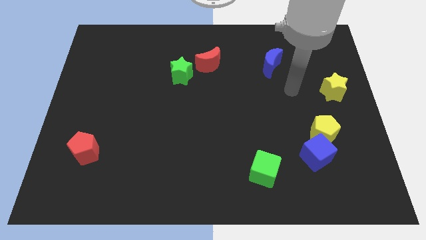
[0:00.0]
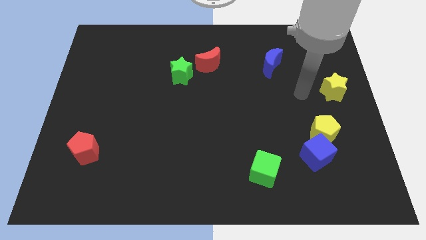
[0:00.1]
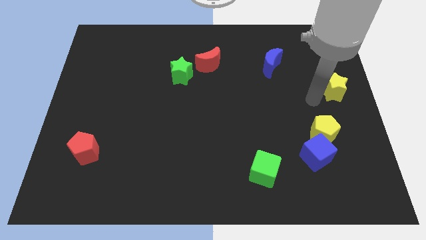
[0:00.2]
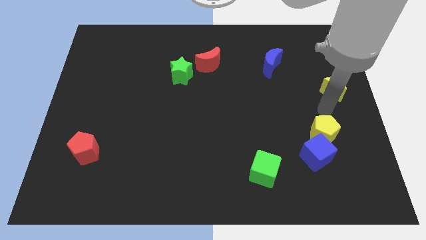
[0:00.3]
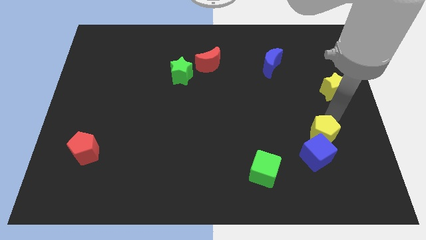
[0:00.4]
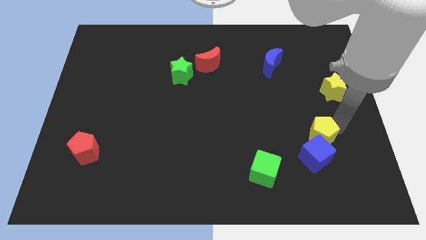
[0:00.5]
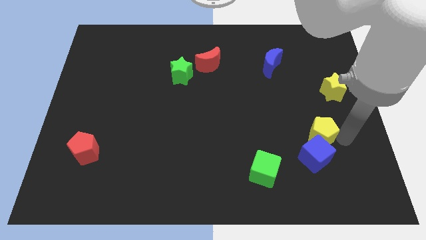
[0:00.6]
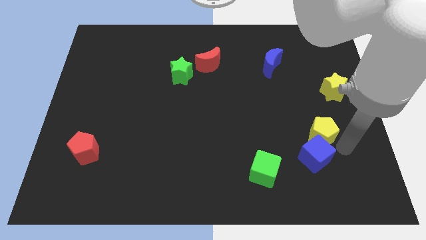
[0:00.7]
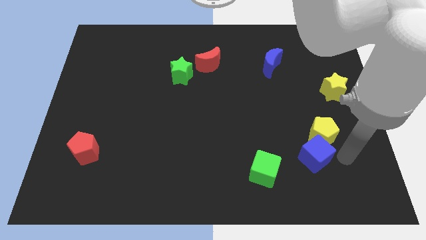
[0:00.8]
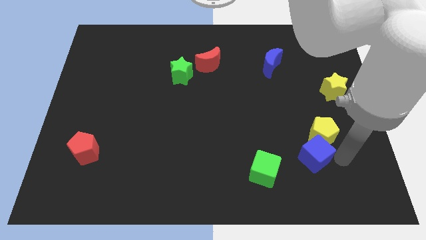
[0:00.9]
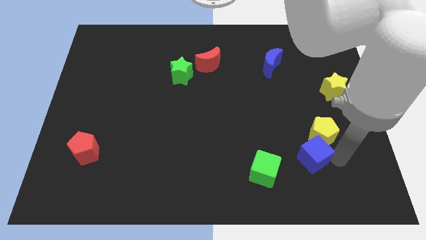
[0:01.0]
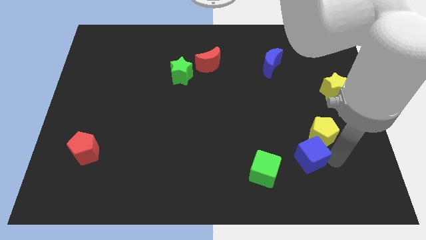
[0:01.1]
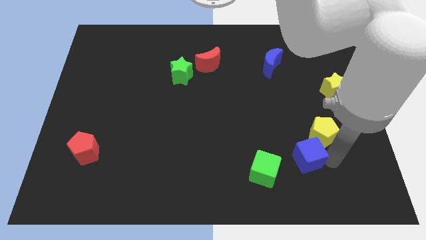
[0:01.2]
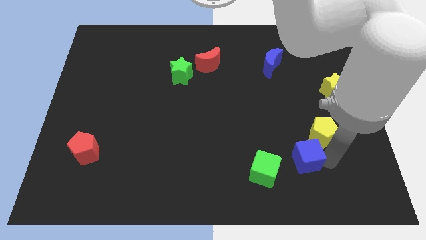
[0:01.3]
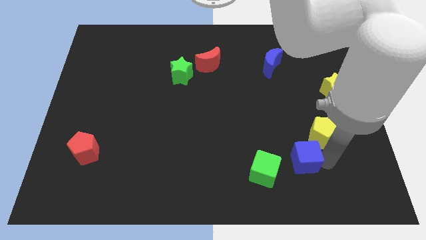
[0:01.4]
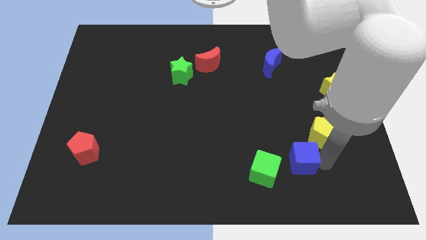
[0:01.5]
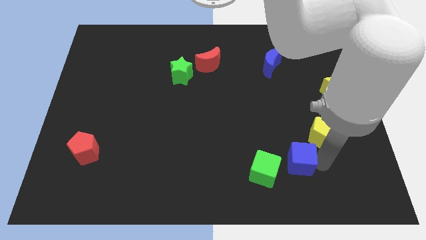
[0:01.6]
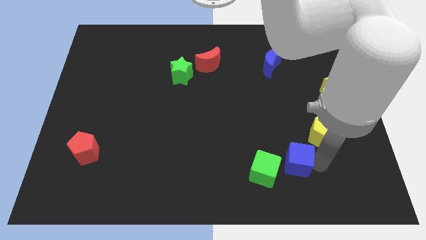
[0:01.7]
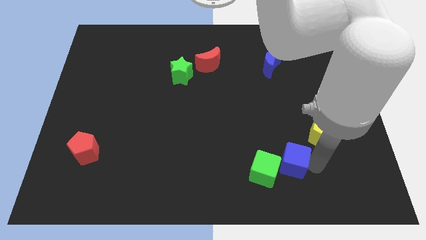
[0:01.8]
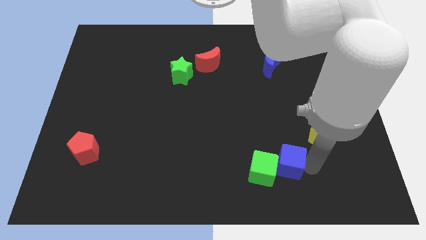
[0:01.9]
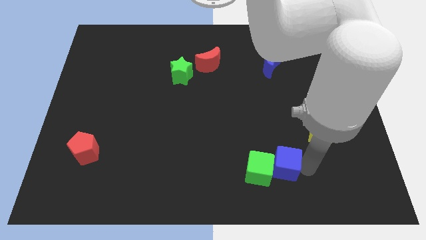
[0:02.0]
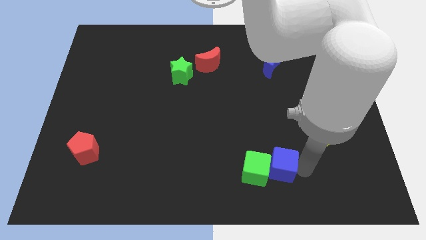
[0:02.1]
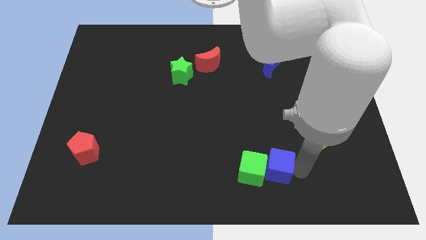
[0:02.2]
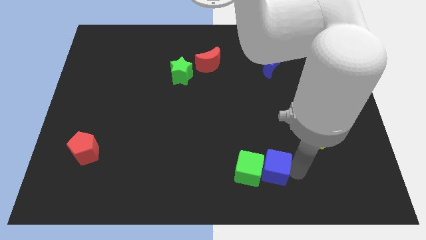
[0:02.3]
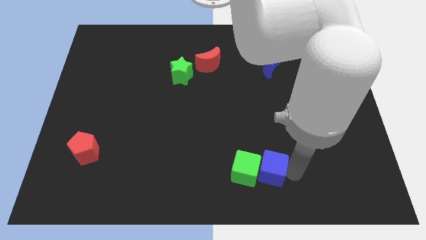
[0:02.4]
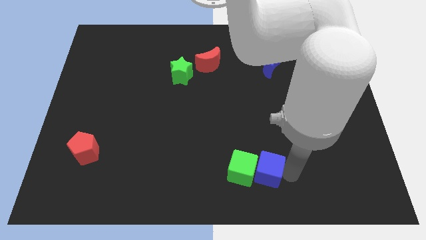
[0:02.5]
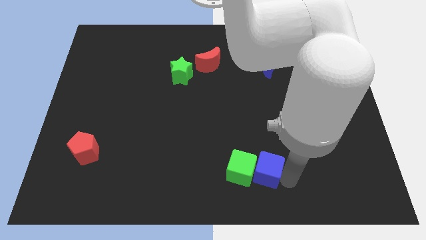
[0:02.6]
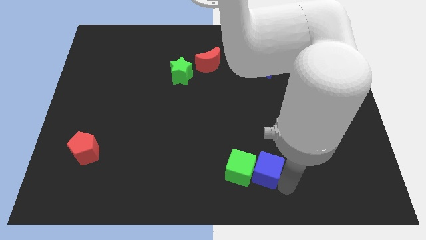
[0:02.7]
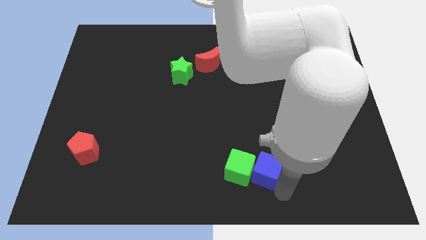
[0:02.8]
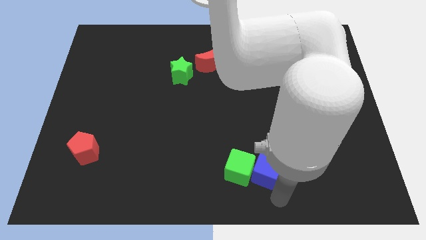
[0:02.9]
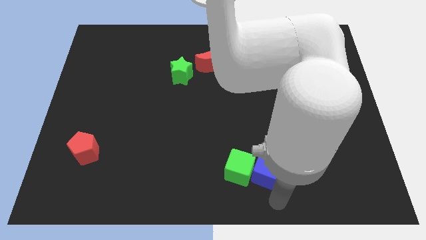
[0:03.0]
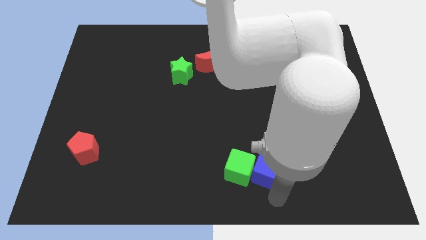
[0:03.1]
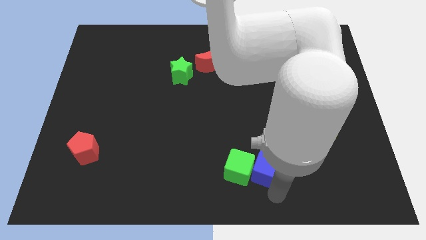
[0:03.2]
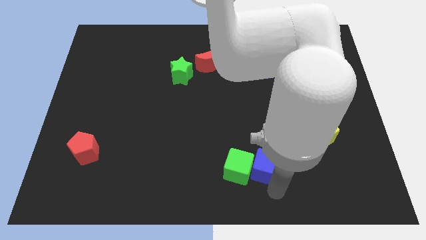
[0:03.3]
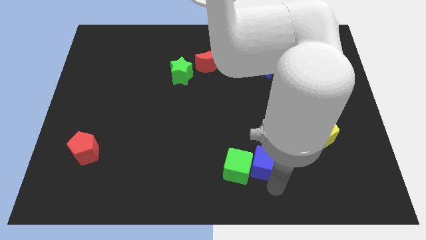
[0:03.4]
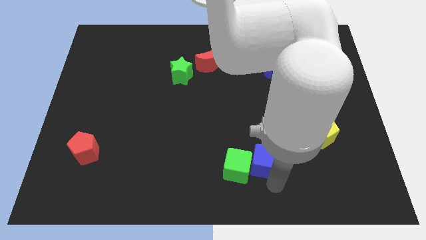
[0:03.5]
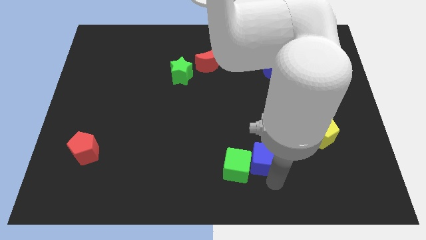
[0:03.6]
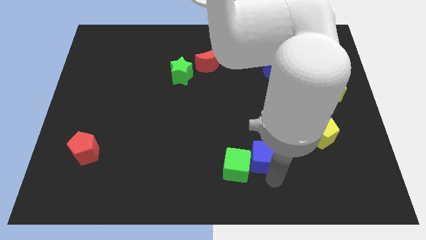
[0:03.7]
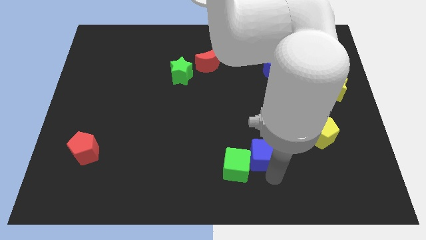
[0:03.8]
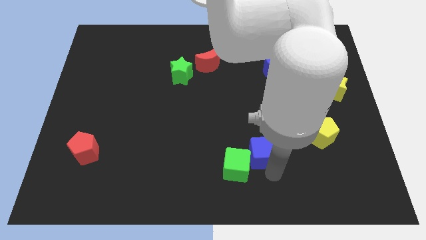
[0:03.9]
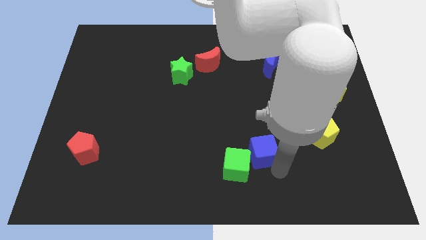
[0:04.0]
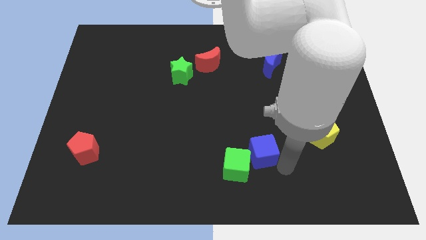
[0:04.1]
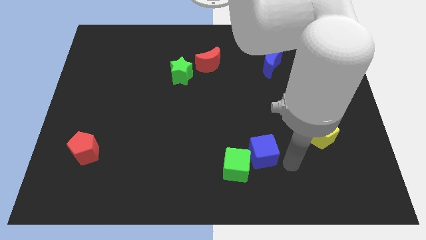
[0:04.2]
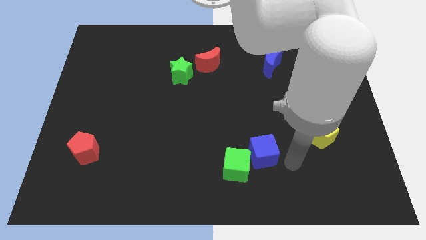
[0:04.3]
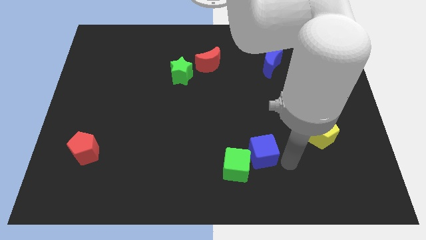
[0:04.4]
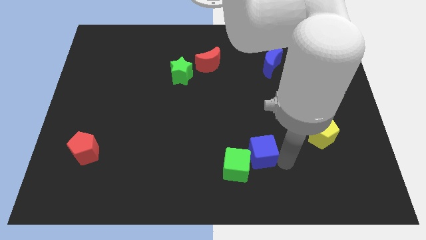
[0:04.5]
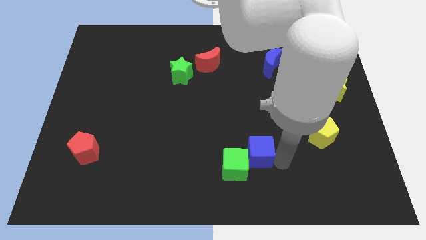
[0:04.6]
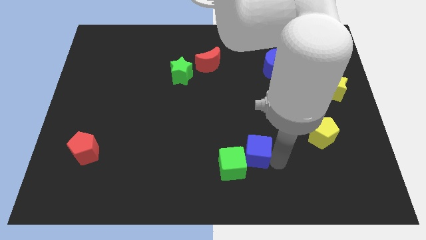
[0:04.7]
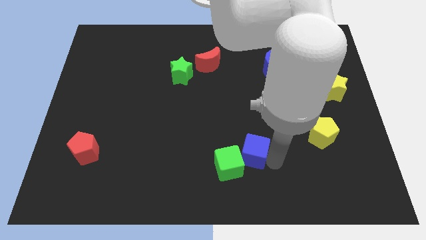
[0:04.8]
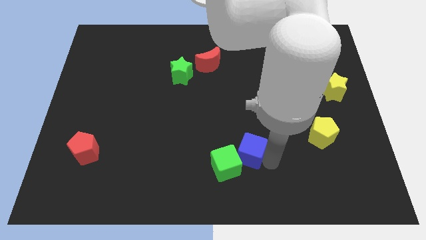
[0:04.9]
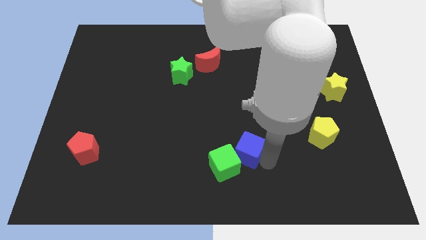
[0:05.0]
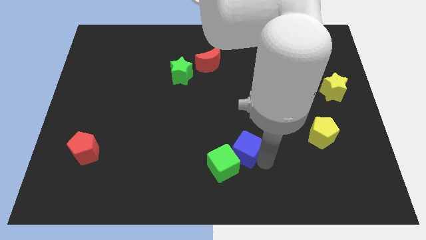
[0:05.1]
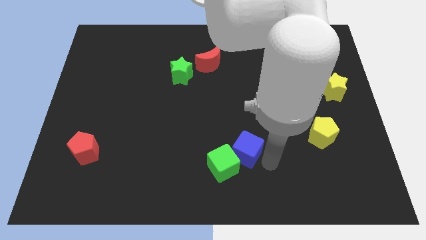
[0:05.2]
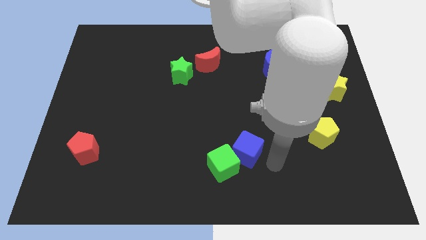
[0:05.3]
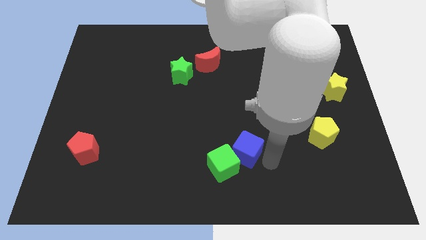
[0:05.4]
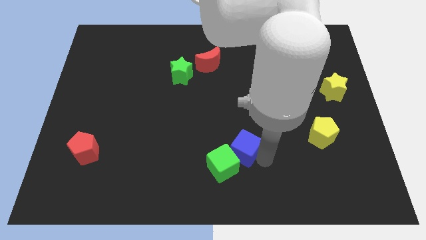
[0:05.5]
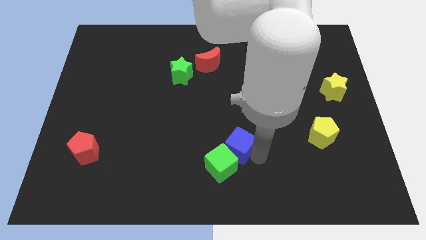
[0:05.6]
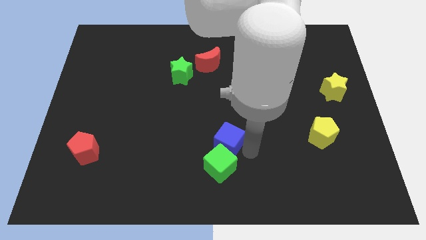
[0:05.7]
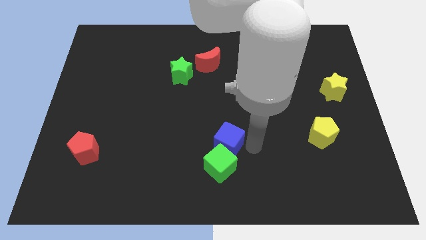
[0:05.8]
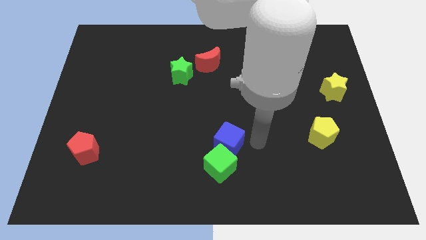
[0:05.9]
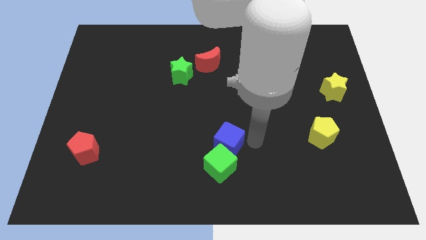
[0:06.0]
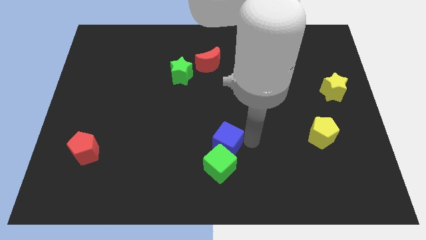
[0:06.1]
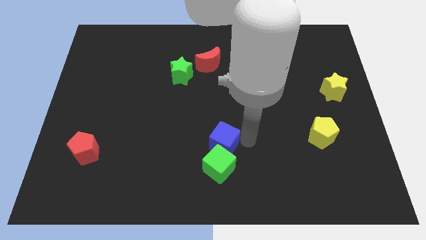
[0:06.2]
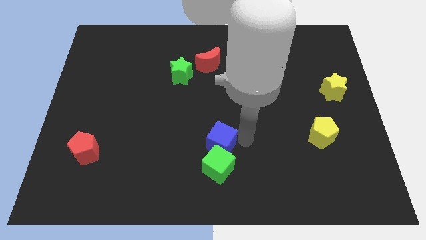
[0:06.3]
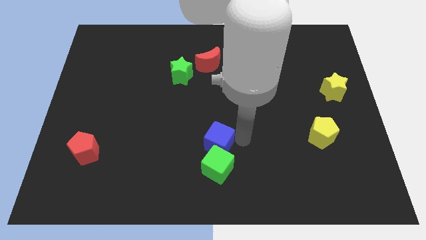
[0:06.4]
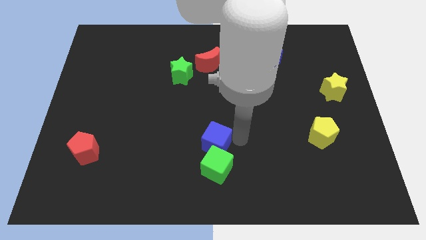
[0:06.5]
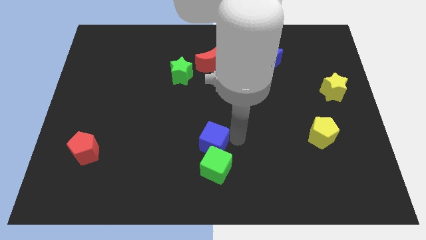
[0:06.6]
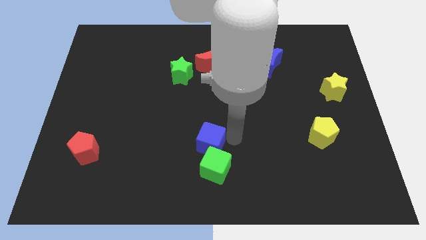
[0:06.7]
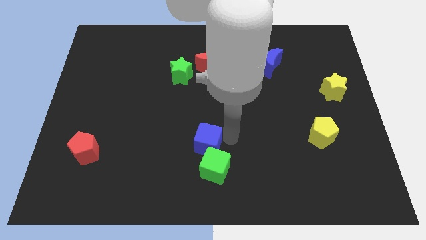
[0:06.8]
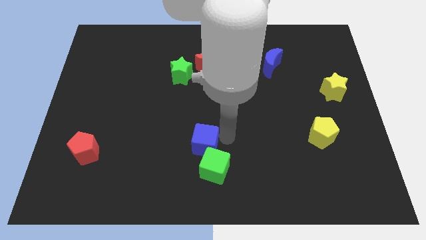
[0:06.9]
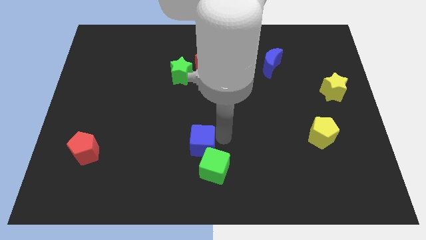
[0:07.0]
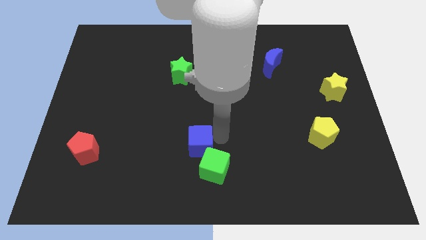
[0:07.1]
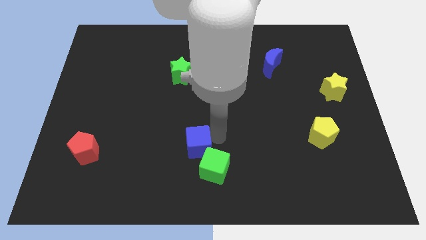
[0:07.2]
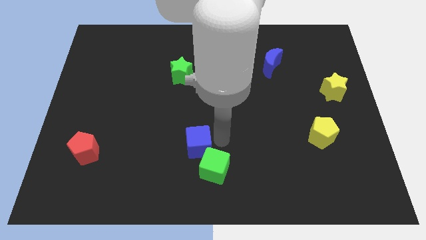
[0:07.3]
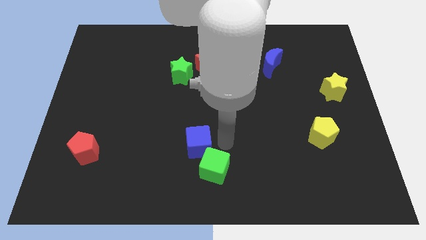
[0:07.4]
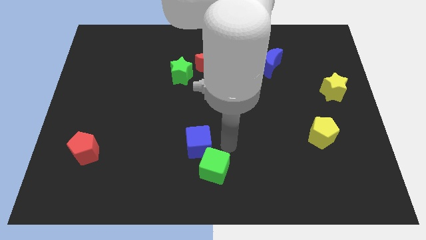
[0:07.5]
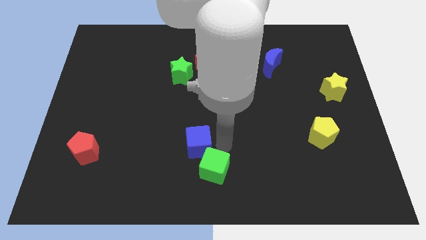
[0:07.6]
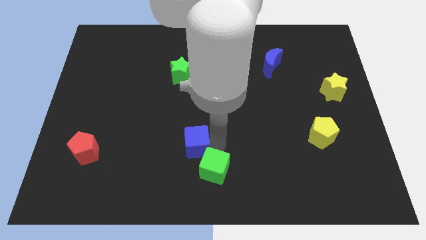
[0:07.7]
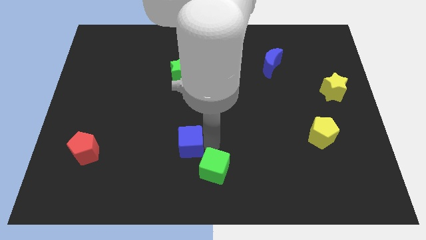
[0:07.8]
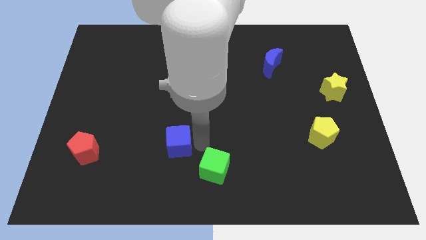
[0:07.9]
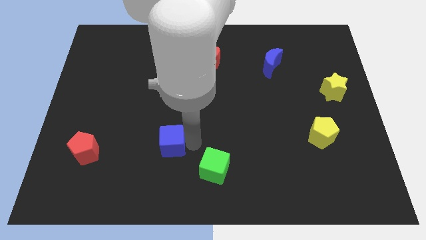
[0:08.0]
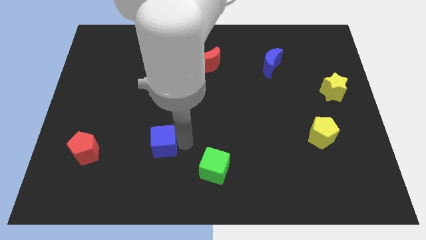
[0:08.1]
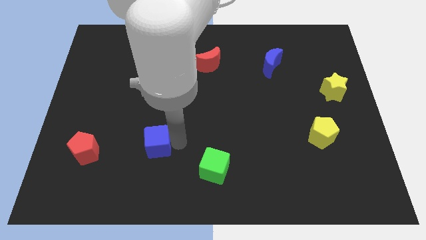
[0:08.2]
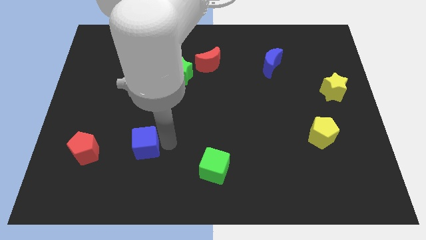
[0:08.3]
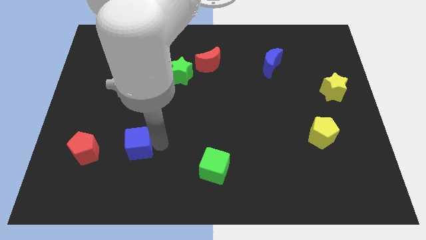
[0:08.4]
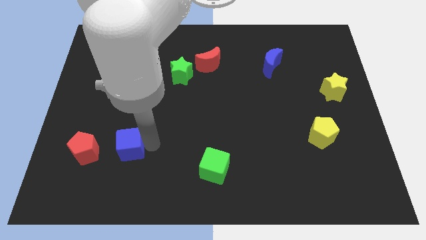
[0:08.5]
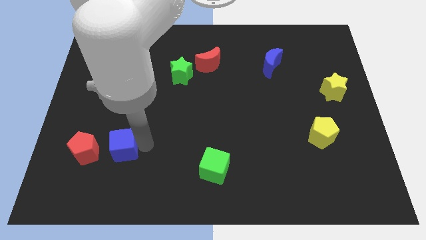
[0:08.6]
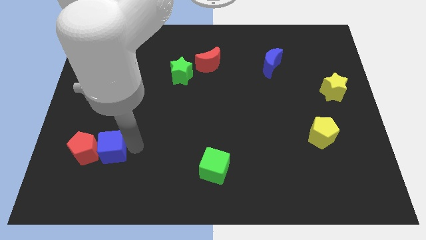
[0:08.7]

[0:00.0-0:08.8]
push the blue cube close to the red pentagon
